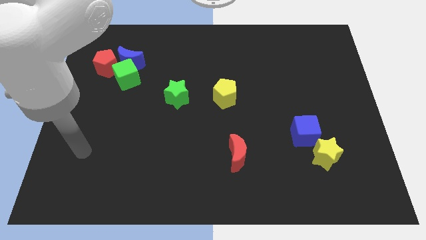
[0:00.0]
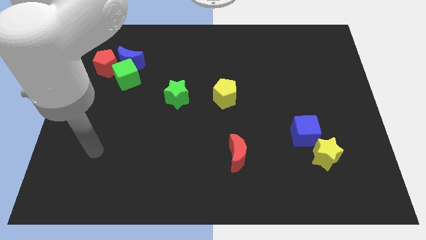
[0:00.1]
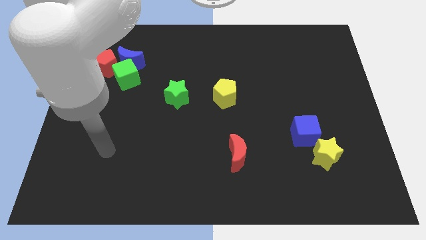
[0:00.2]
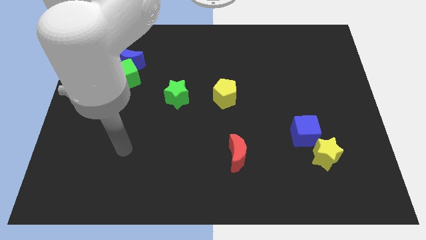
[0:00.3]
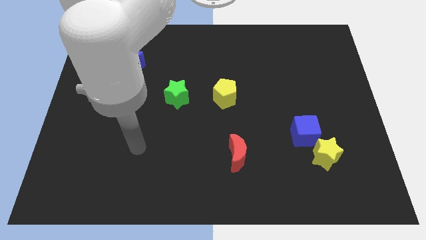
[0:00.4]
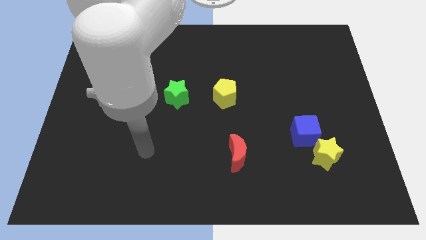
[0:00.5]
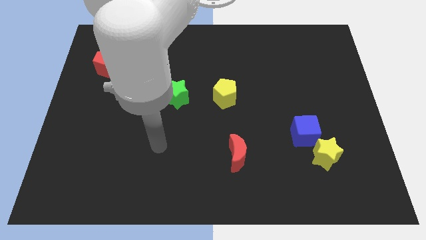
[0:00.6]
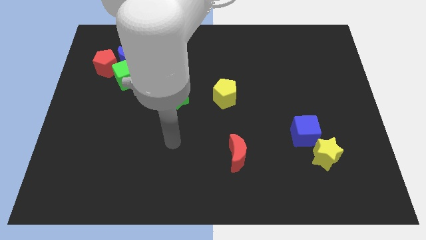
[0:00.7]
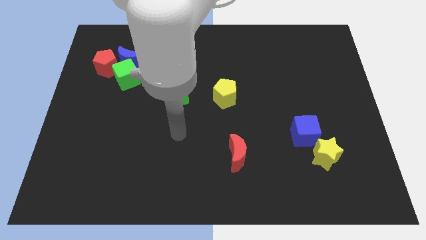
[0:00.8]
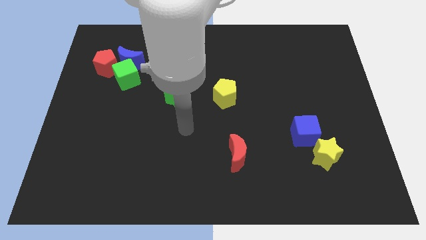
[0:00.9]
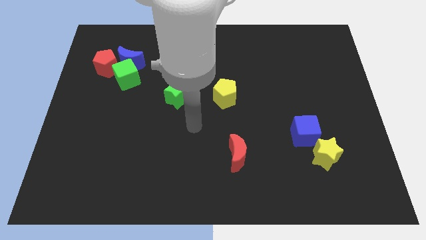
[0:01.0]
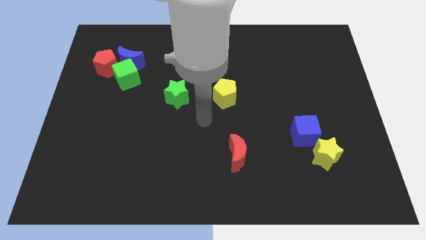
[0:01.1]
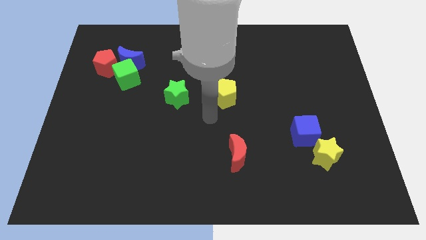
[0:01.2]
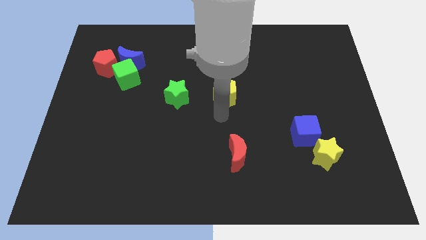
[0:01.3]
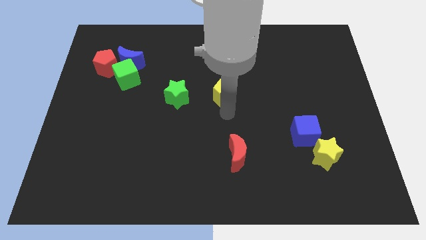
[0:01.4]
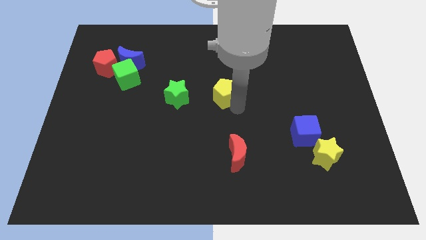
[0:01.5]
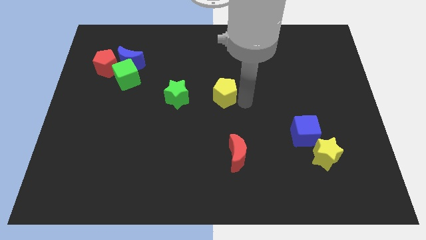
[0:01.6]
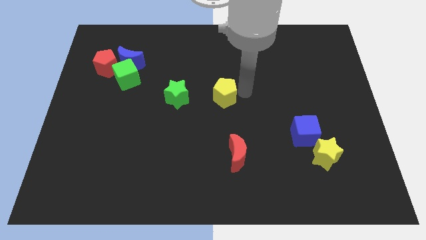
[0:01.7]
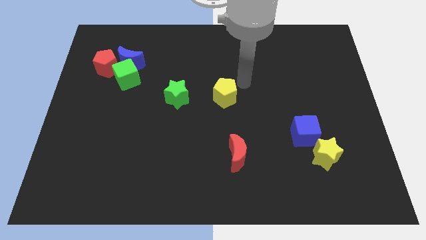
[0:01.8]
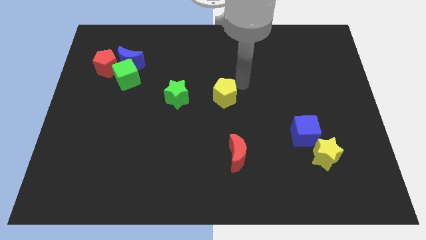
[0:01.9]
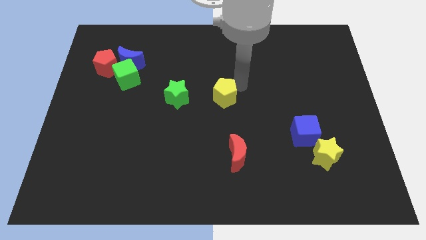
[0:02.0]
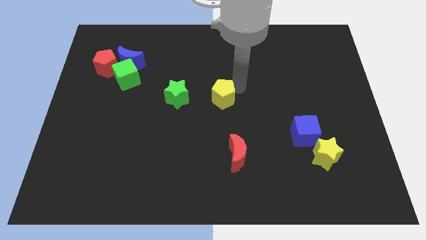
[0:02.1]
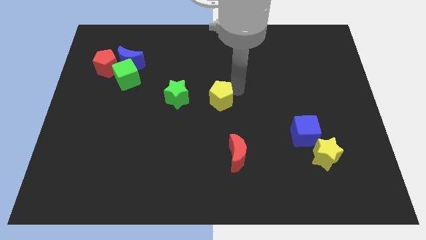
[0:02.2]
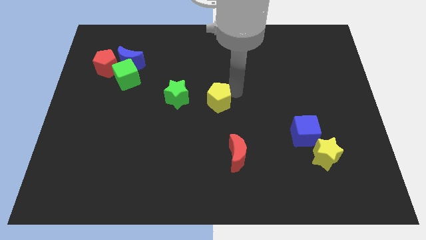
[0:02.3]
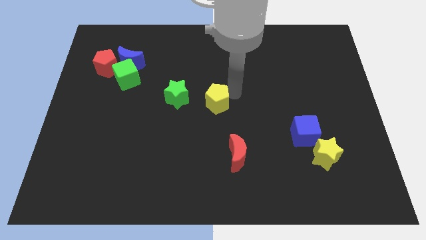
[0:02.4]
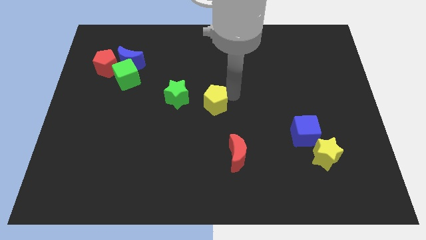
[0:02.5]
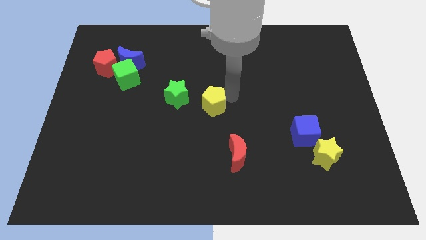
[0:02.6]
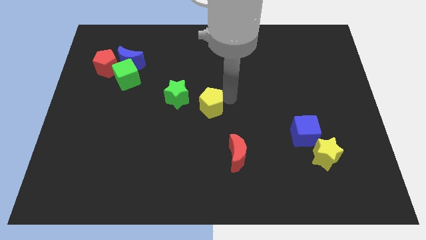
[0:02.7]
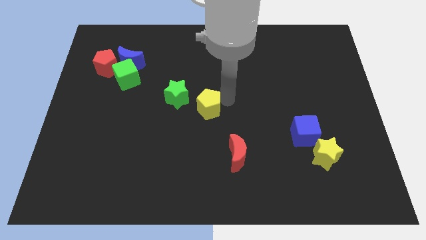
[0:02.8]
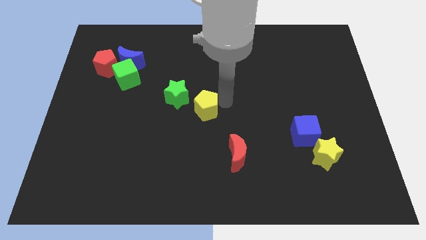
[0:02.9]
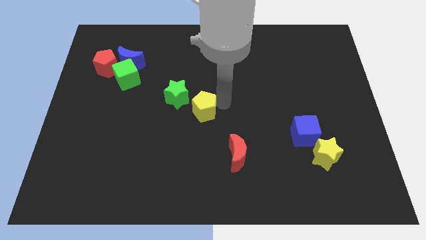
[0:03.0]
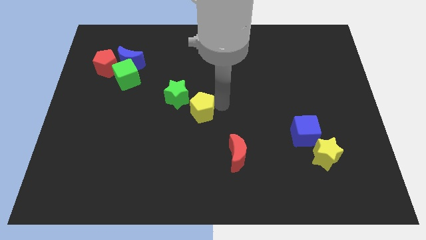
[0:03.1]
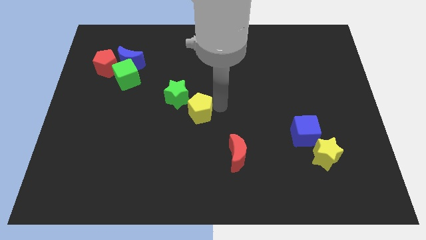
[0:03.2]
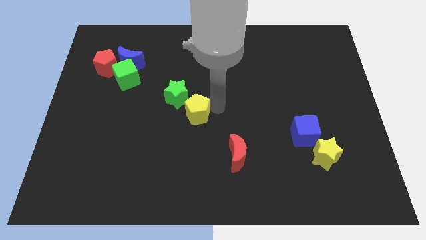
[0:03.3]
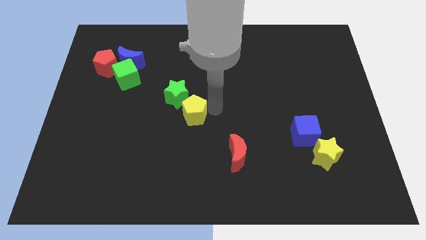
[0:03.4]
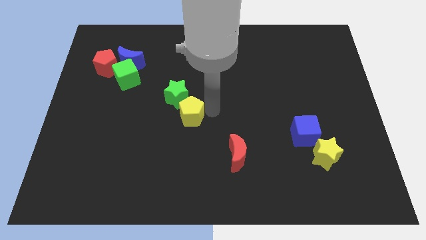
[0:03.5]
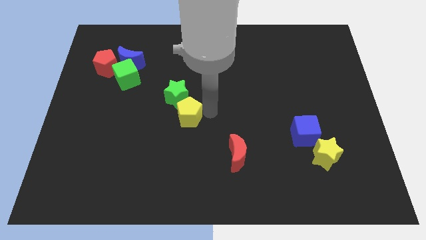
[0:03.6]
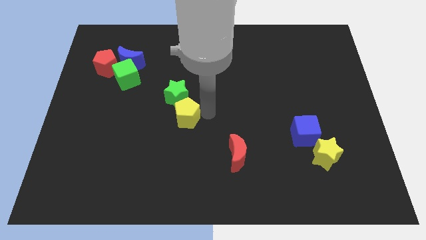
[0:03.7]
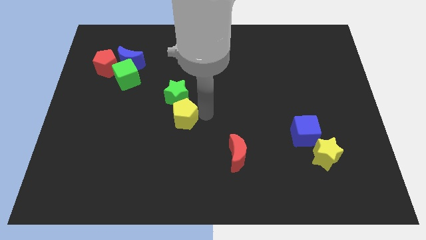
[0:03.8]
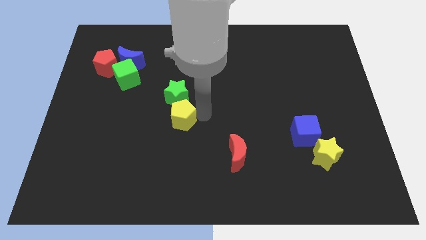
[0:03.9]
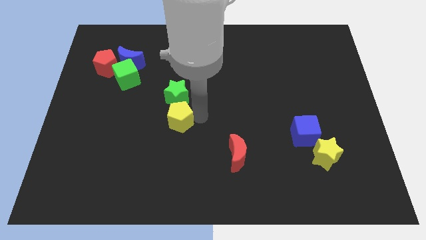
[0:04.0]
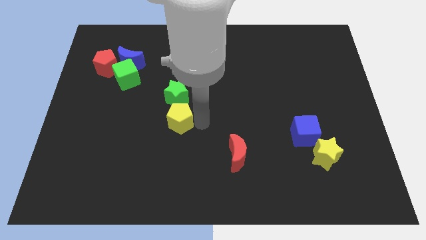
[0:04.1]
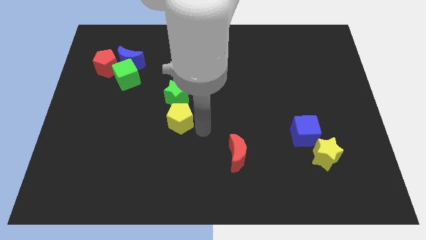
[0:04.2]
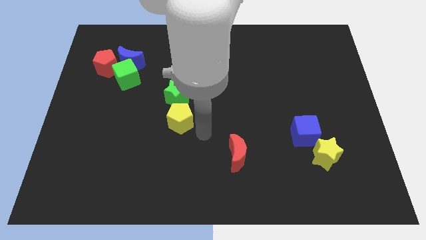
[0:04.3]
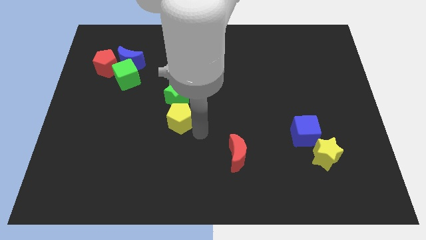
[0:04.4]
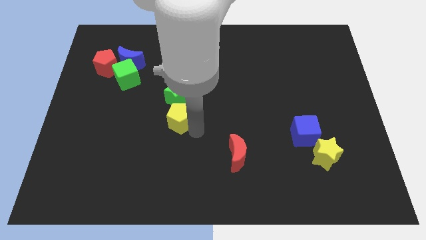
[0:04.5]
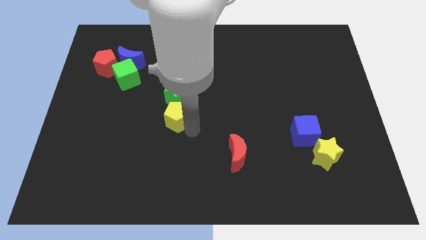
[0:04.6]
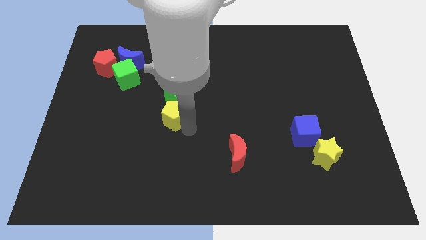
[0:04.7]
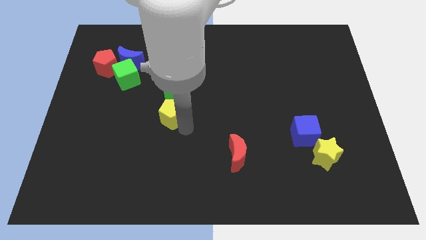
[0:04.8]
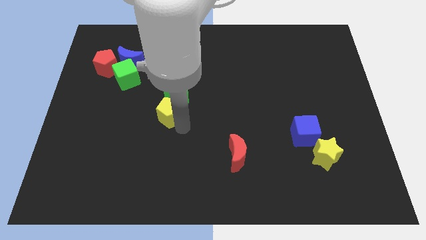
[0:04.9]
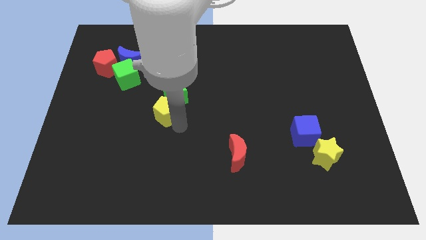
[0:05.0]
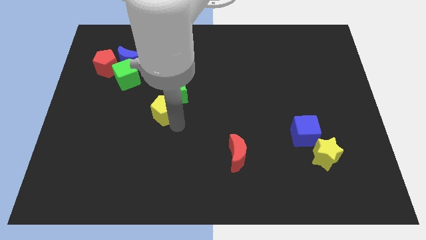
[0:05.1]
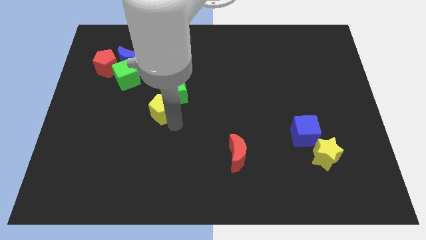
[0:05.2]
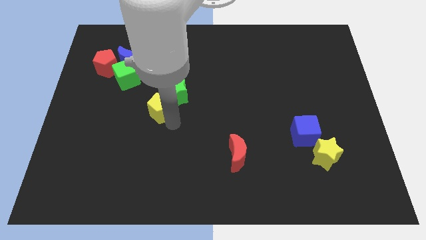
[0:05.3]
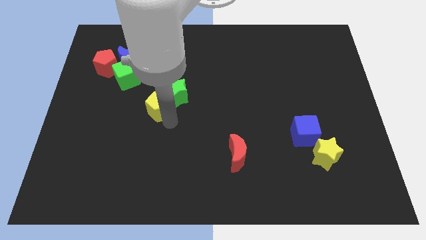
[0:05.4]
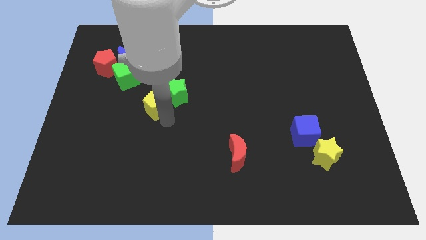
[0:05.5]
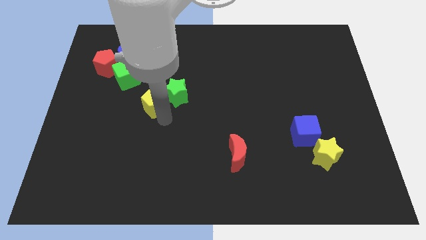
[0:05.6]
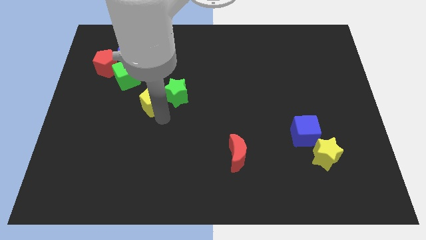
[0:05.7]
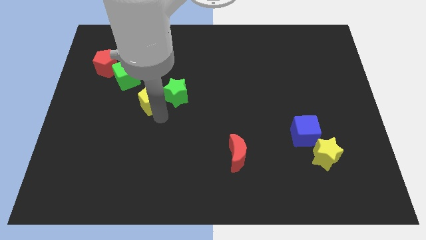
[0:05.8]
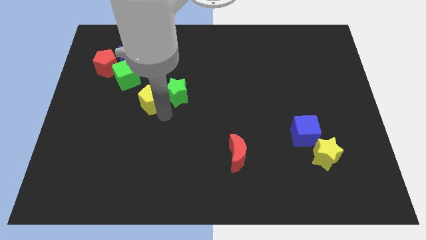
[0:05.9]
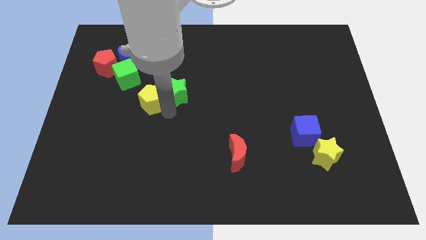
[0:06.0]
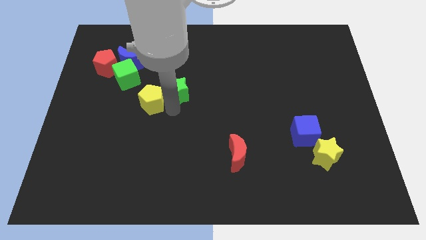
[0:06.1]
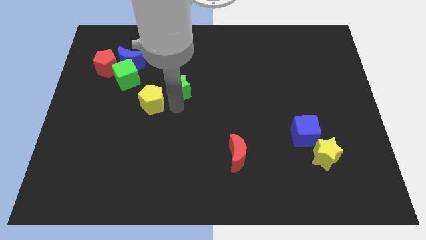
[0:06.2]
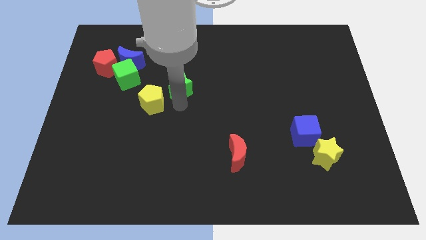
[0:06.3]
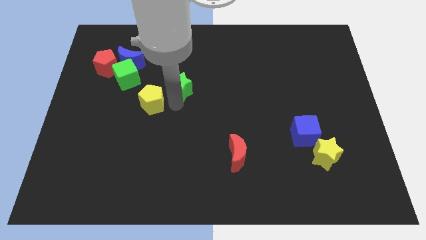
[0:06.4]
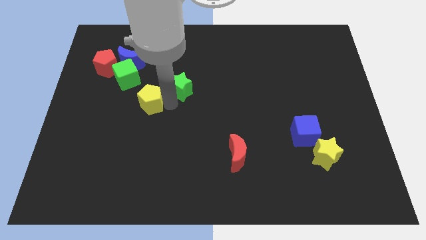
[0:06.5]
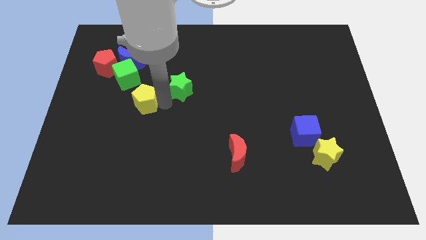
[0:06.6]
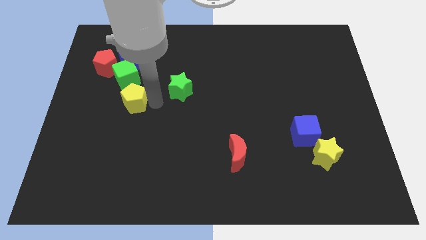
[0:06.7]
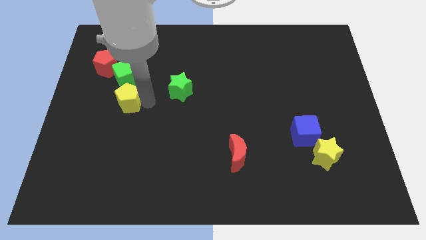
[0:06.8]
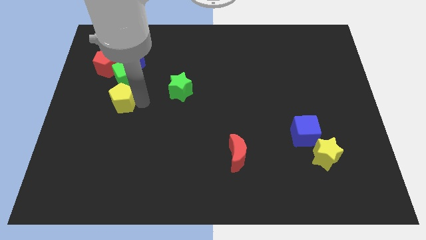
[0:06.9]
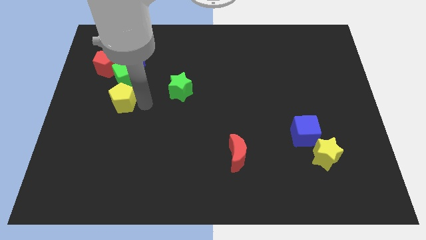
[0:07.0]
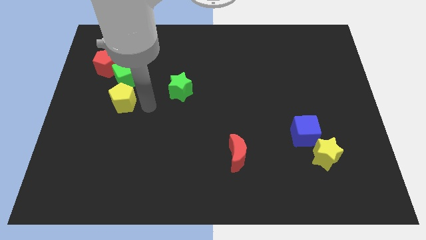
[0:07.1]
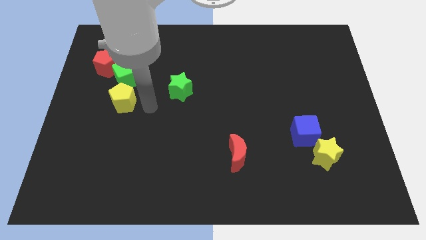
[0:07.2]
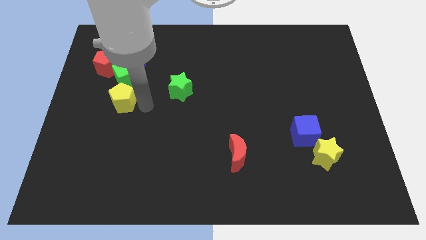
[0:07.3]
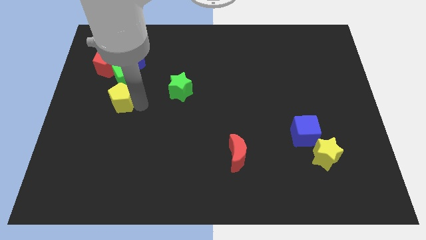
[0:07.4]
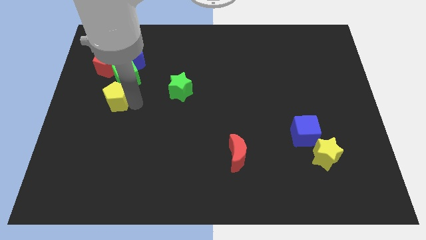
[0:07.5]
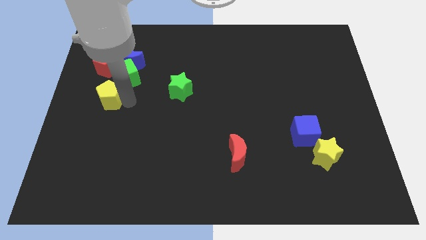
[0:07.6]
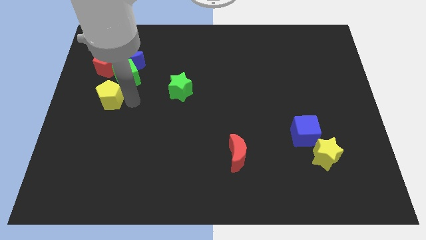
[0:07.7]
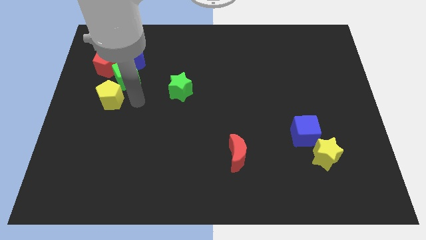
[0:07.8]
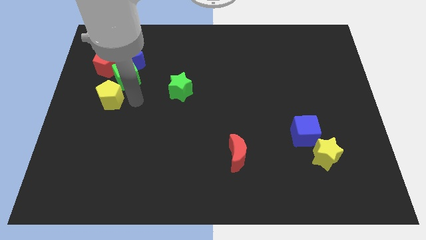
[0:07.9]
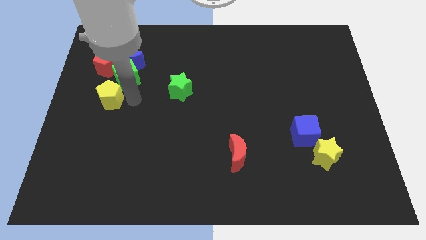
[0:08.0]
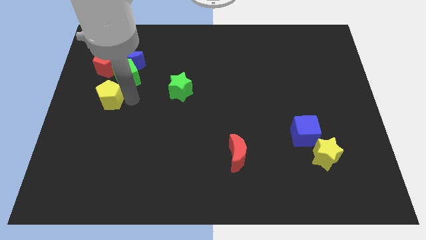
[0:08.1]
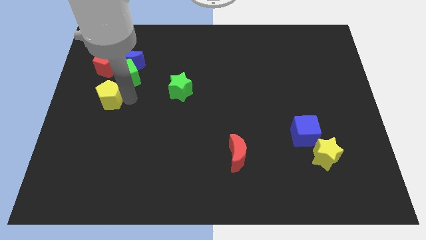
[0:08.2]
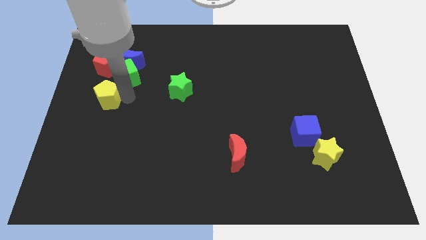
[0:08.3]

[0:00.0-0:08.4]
slide the yellow pentagon to the left side
